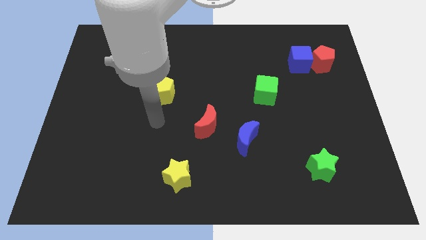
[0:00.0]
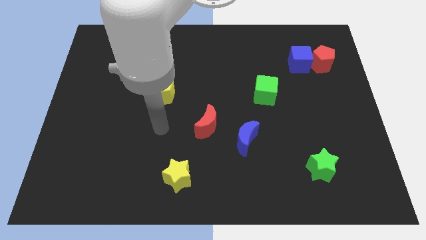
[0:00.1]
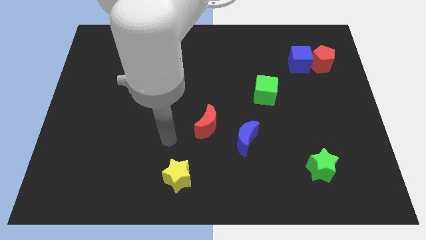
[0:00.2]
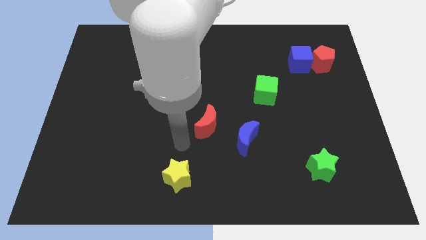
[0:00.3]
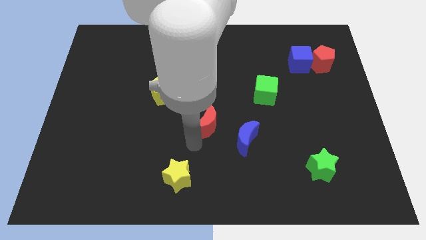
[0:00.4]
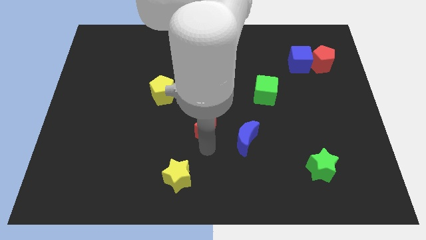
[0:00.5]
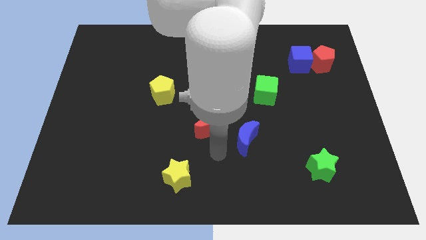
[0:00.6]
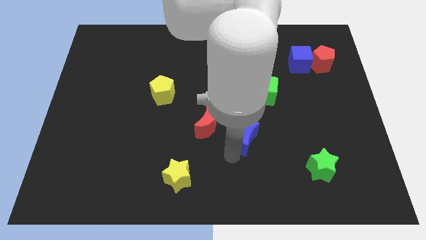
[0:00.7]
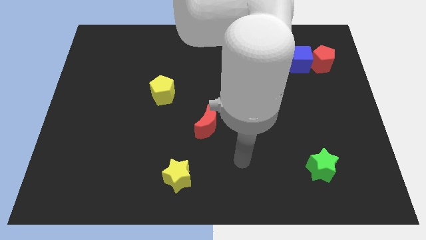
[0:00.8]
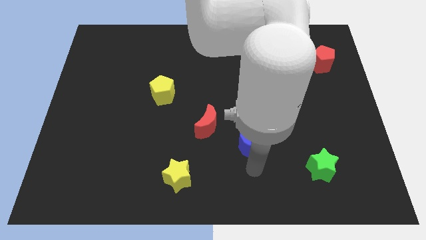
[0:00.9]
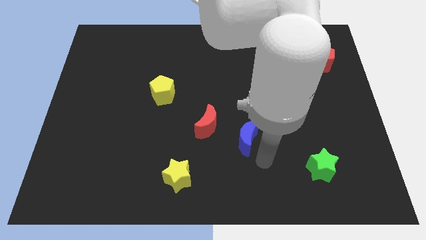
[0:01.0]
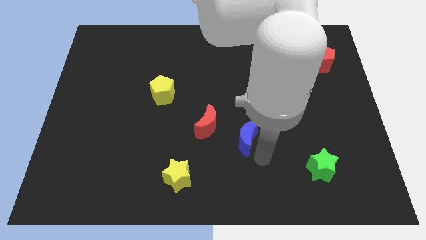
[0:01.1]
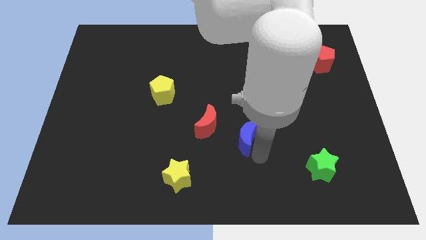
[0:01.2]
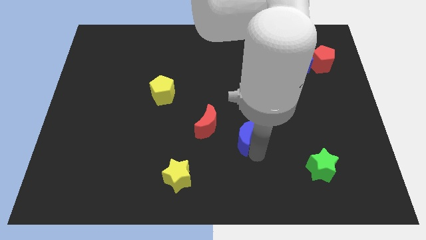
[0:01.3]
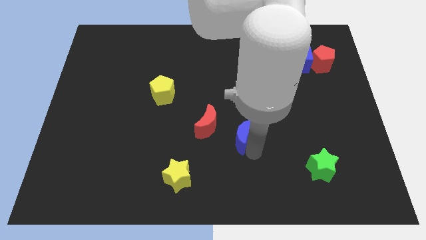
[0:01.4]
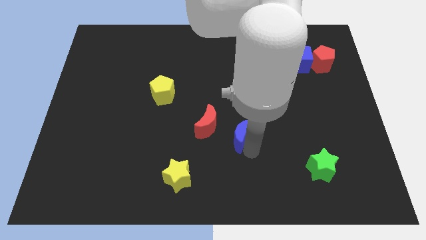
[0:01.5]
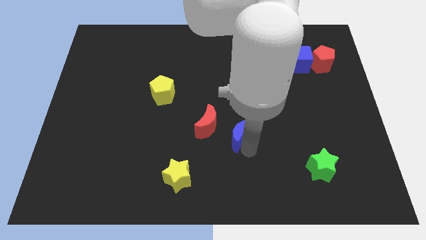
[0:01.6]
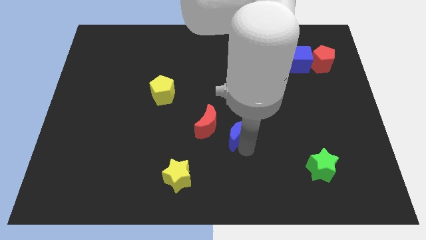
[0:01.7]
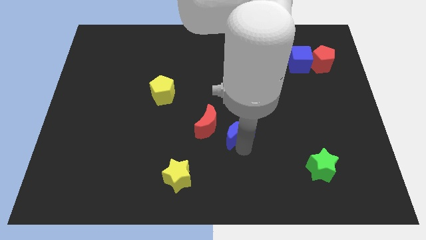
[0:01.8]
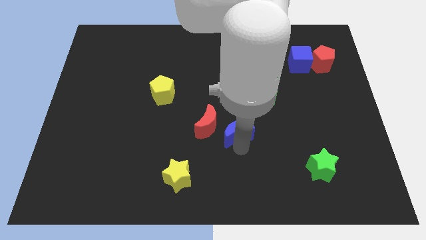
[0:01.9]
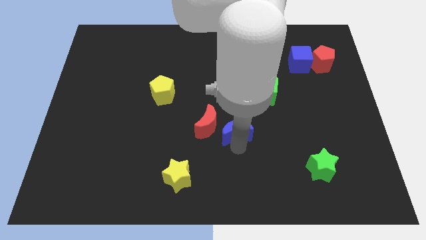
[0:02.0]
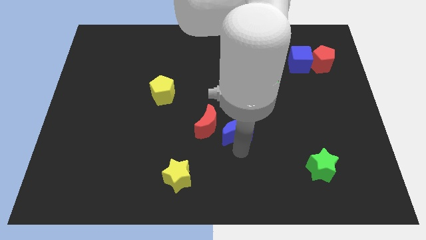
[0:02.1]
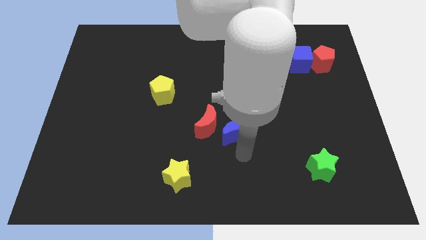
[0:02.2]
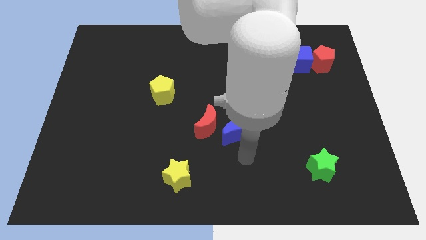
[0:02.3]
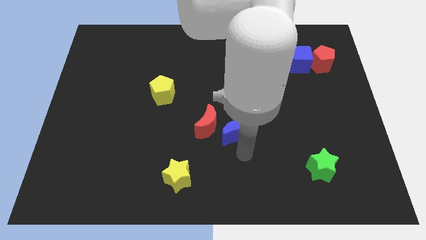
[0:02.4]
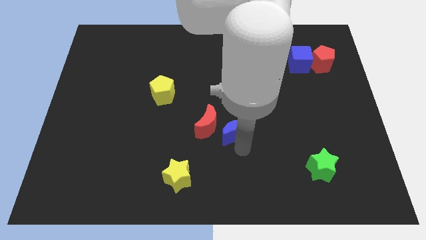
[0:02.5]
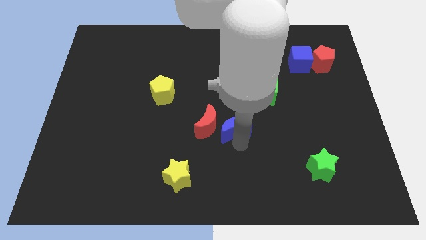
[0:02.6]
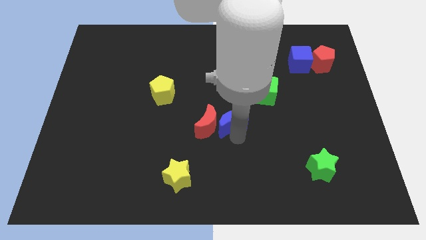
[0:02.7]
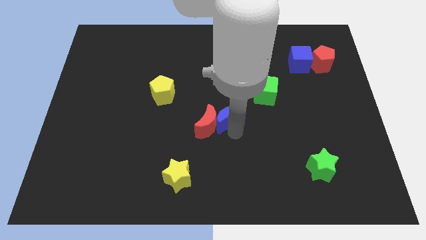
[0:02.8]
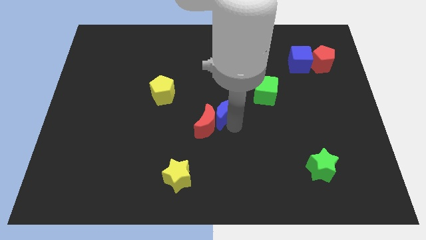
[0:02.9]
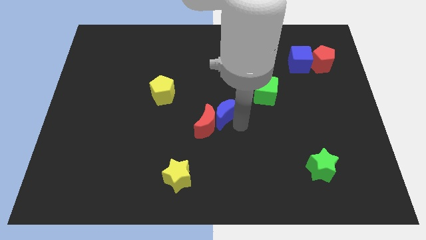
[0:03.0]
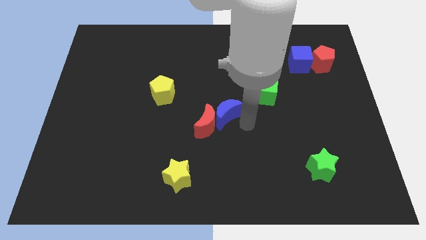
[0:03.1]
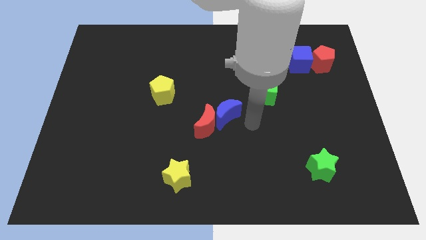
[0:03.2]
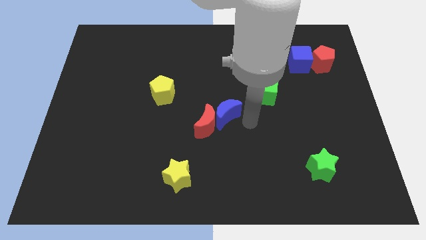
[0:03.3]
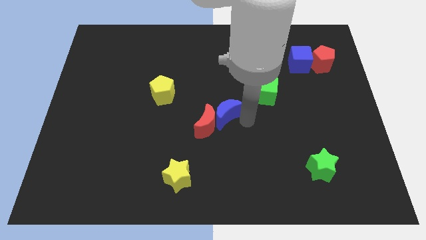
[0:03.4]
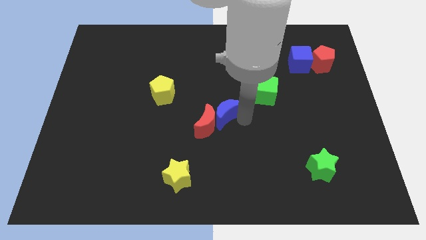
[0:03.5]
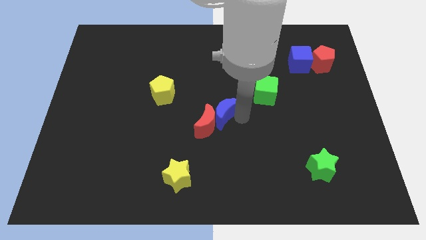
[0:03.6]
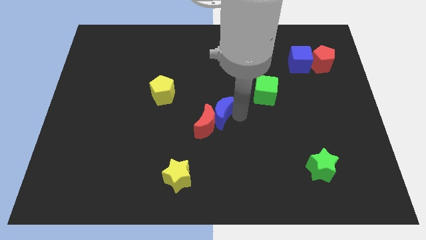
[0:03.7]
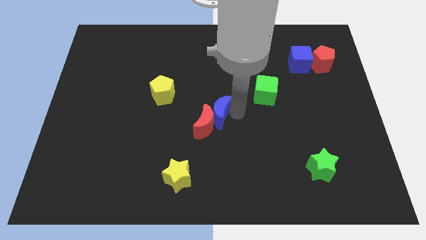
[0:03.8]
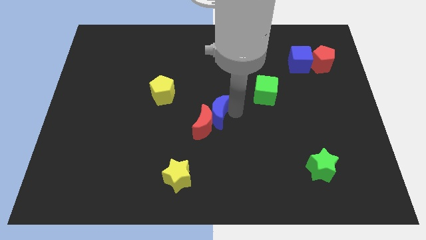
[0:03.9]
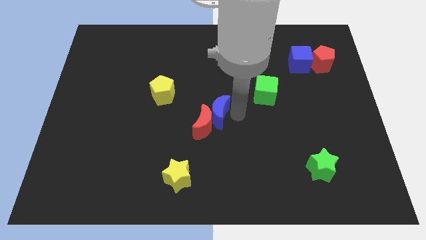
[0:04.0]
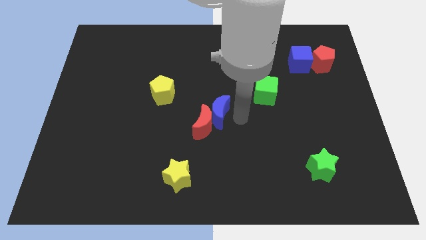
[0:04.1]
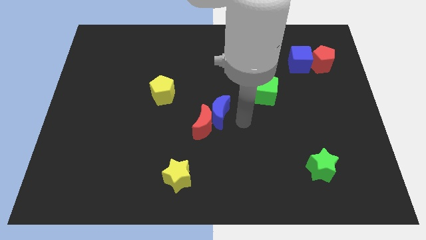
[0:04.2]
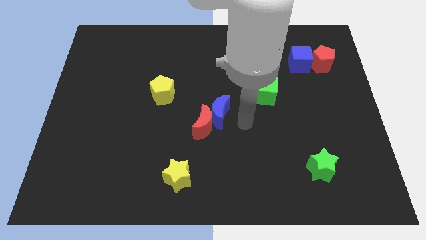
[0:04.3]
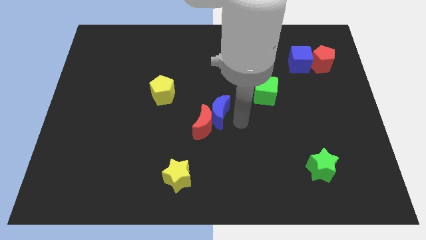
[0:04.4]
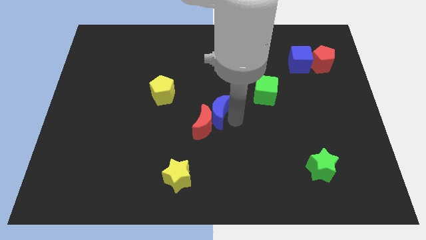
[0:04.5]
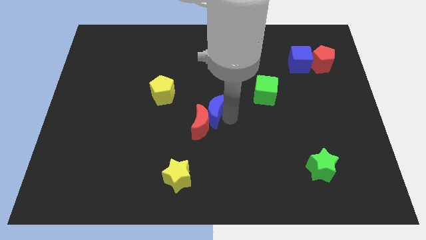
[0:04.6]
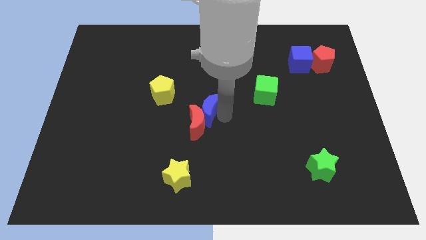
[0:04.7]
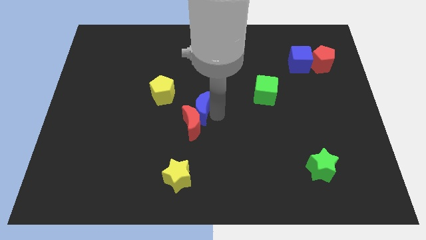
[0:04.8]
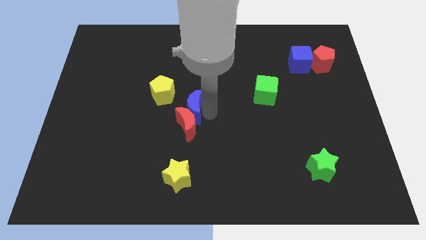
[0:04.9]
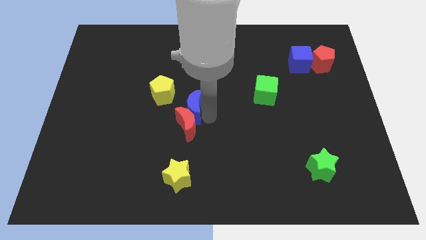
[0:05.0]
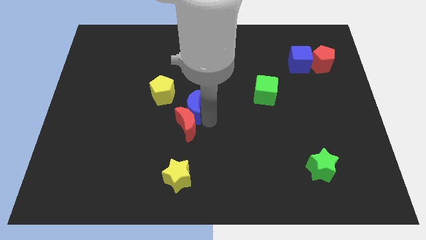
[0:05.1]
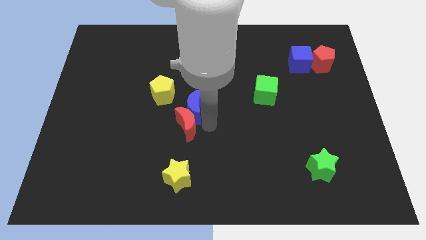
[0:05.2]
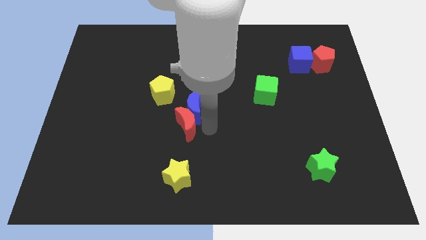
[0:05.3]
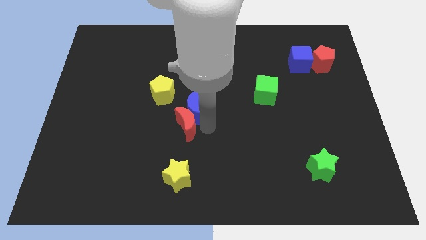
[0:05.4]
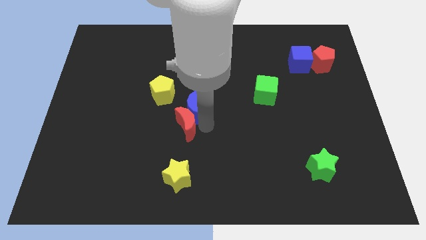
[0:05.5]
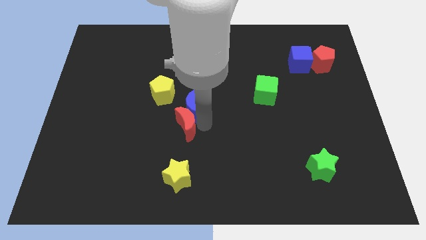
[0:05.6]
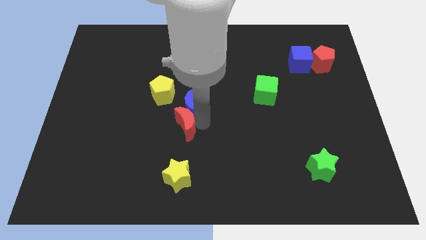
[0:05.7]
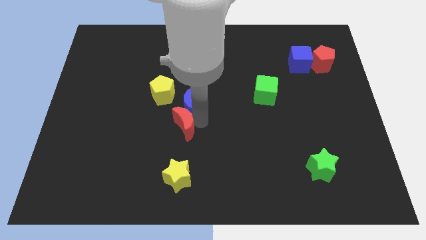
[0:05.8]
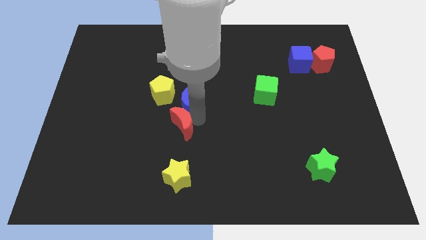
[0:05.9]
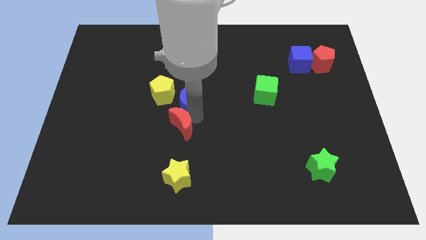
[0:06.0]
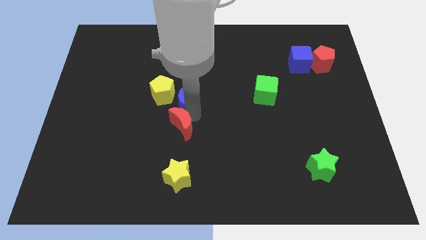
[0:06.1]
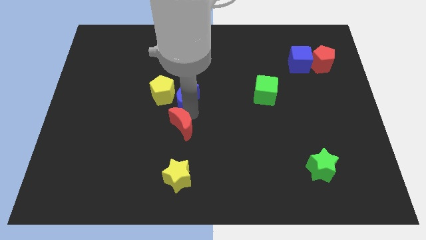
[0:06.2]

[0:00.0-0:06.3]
push the blue moon next to the yellow pentagon
